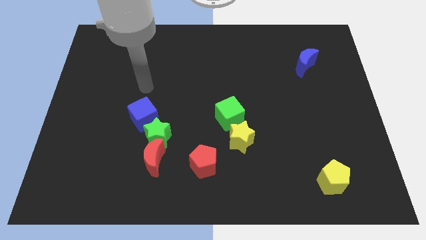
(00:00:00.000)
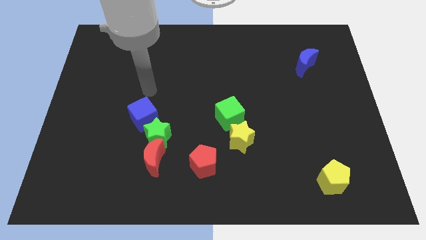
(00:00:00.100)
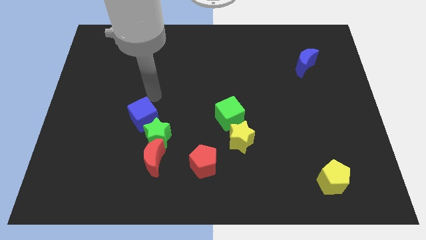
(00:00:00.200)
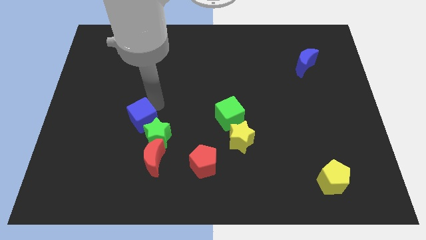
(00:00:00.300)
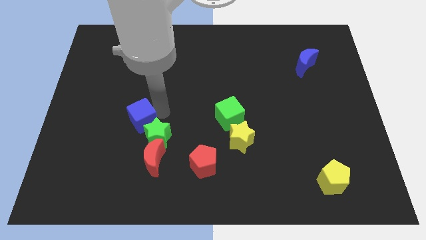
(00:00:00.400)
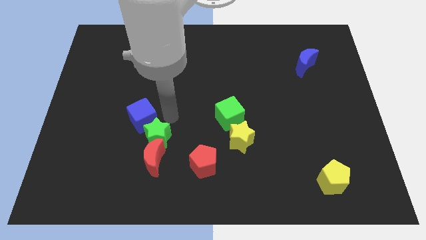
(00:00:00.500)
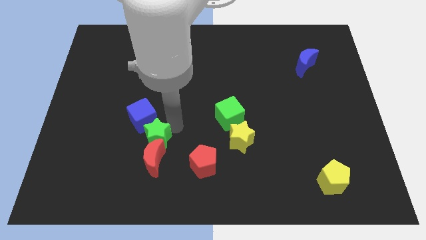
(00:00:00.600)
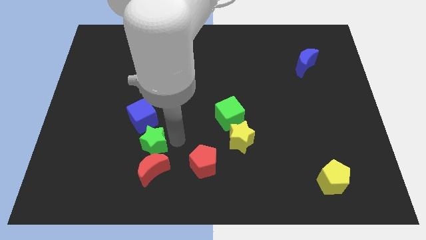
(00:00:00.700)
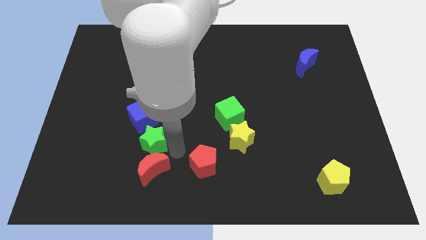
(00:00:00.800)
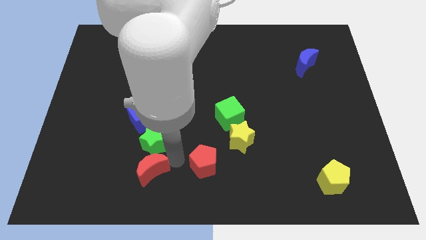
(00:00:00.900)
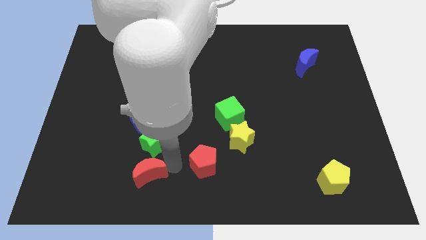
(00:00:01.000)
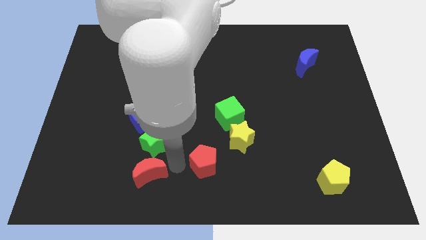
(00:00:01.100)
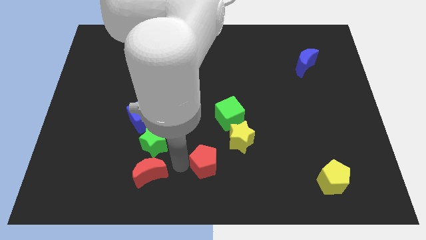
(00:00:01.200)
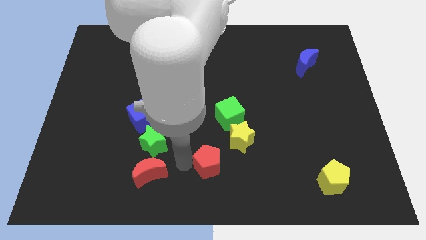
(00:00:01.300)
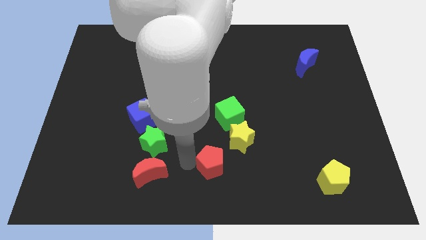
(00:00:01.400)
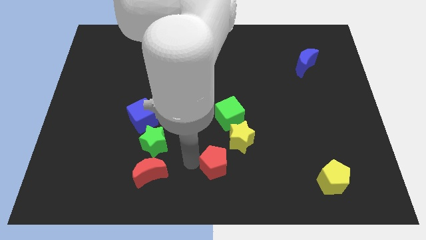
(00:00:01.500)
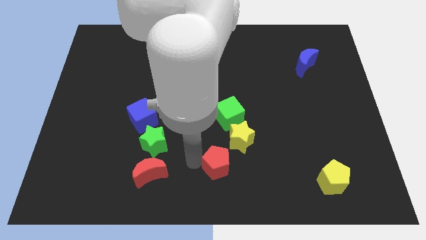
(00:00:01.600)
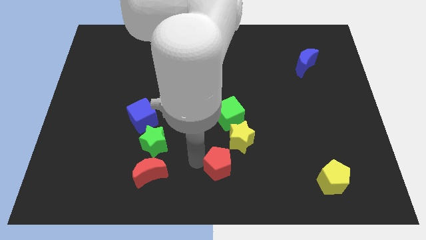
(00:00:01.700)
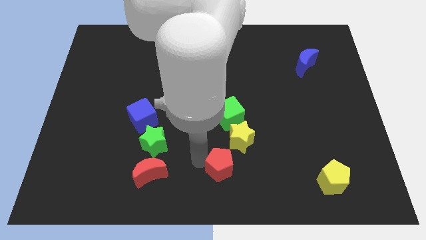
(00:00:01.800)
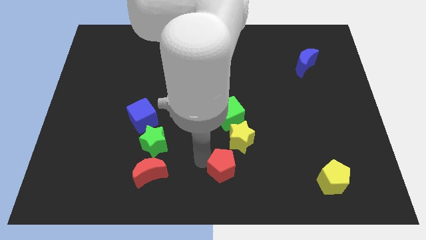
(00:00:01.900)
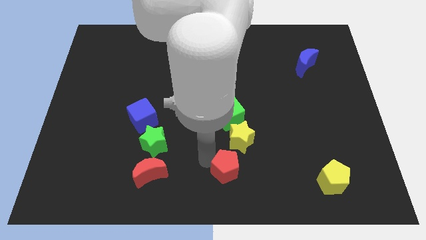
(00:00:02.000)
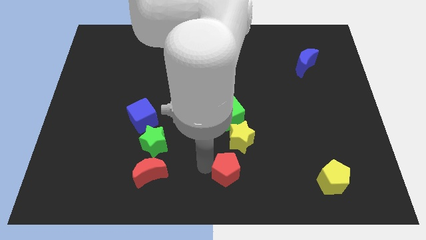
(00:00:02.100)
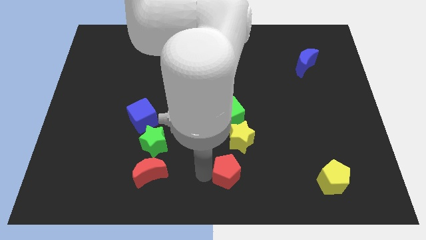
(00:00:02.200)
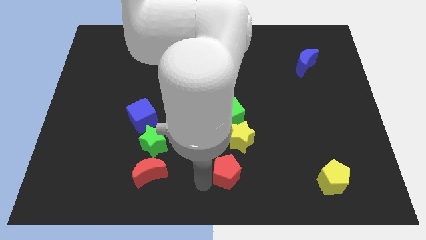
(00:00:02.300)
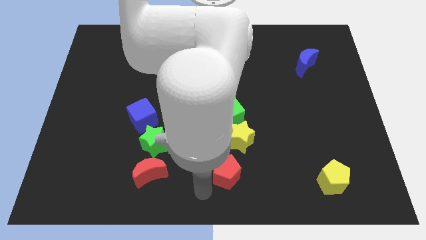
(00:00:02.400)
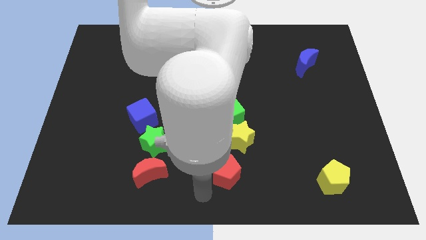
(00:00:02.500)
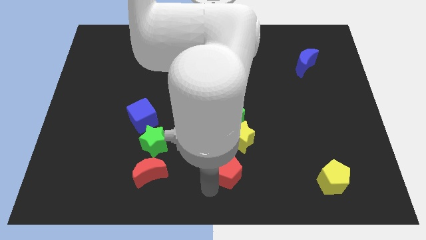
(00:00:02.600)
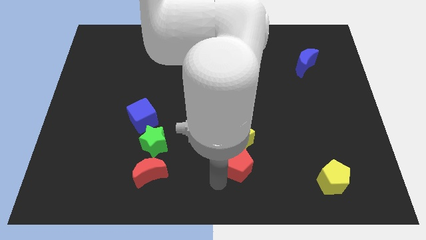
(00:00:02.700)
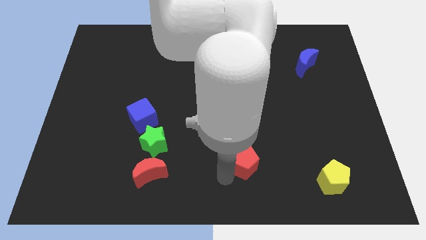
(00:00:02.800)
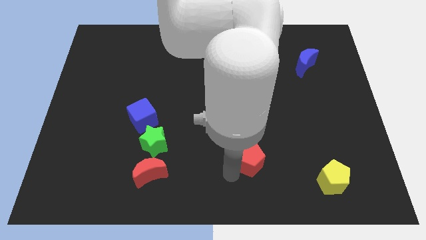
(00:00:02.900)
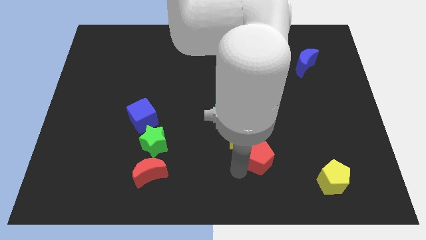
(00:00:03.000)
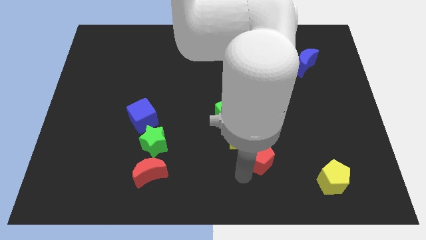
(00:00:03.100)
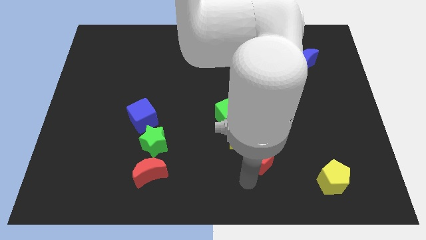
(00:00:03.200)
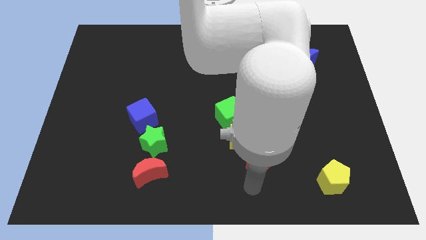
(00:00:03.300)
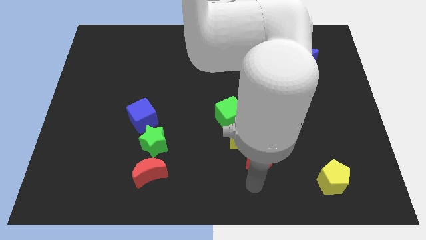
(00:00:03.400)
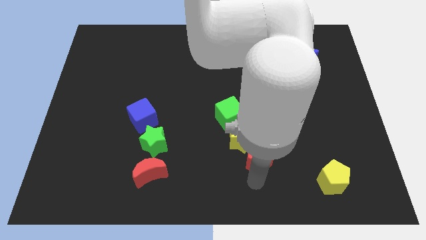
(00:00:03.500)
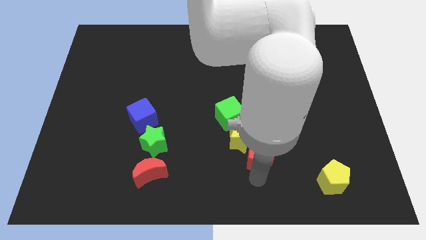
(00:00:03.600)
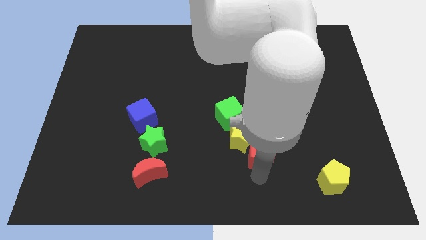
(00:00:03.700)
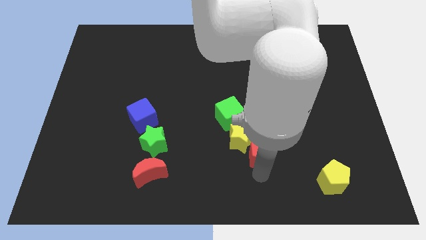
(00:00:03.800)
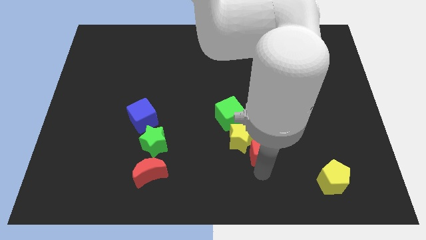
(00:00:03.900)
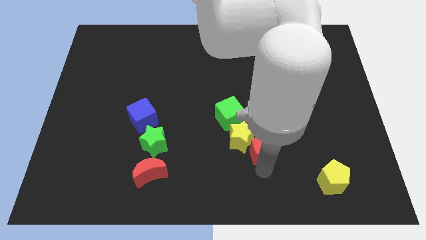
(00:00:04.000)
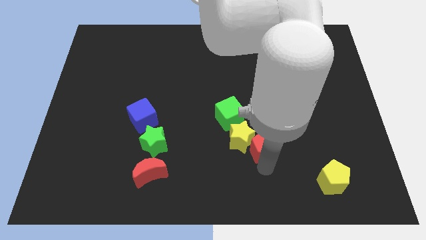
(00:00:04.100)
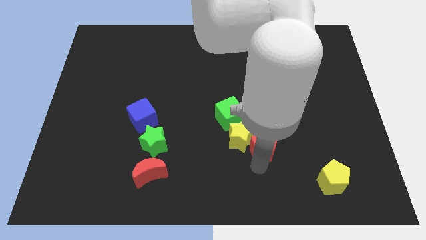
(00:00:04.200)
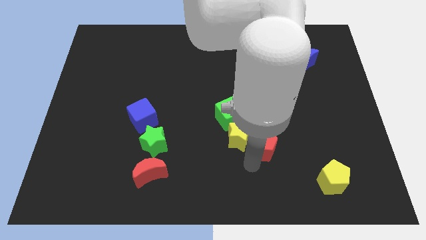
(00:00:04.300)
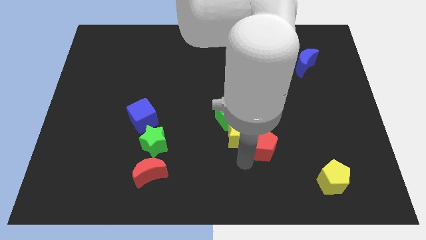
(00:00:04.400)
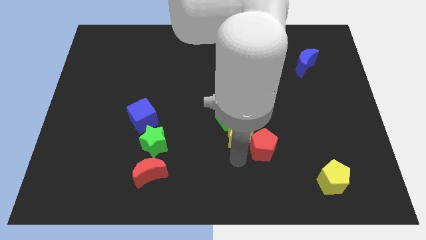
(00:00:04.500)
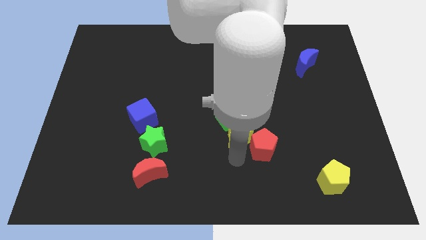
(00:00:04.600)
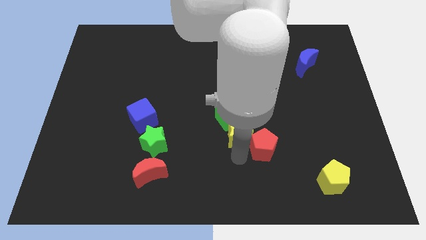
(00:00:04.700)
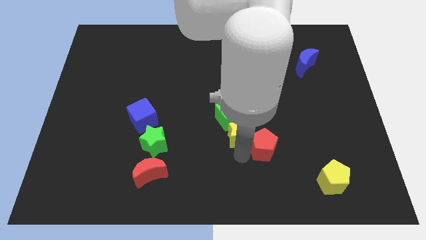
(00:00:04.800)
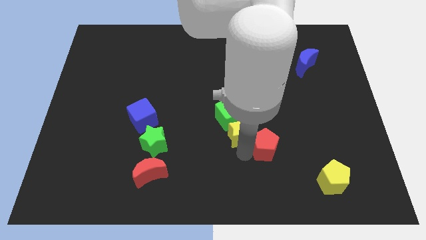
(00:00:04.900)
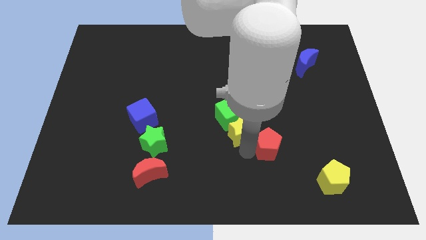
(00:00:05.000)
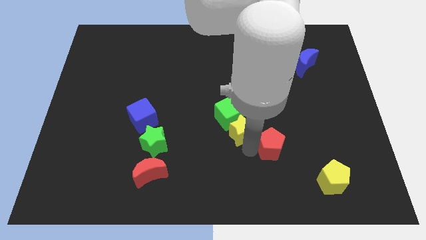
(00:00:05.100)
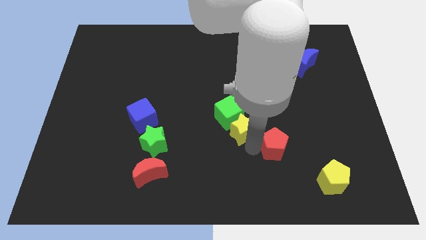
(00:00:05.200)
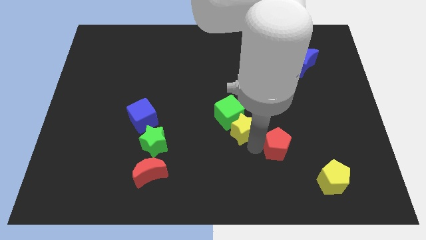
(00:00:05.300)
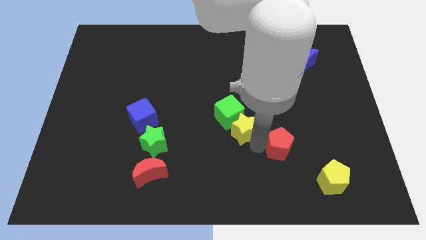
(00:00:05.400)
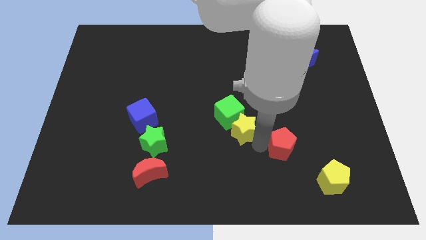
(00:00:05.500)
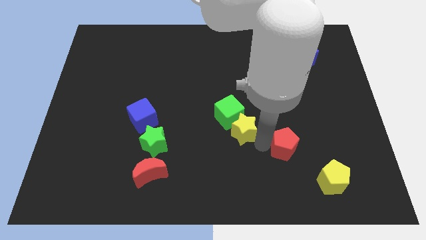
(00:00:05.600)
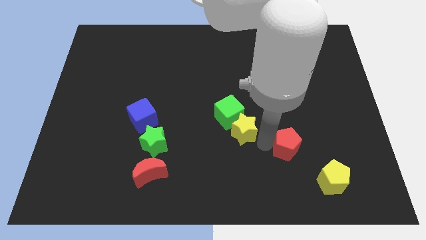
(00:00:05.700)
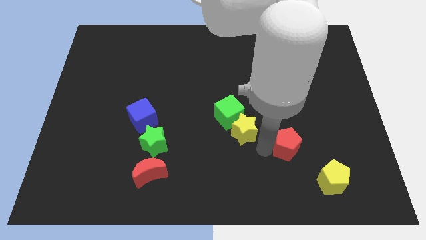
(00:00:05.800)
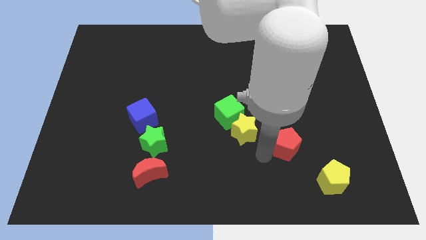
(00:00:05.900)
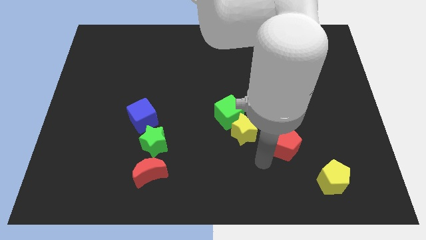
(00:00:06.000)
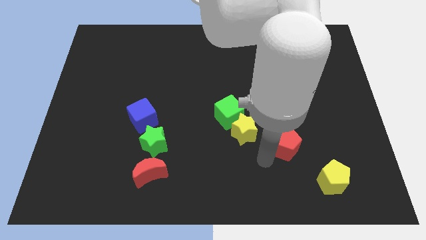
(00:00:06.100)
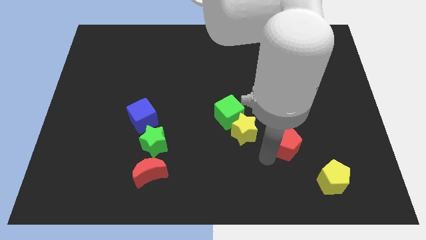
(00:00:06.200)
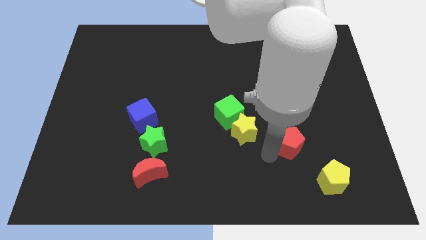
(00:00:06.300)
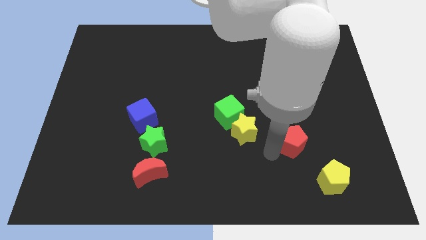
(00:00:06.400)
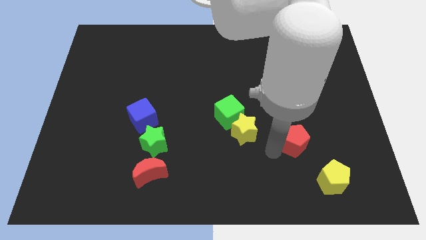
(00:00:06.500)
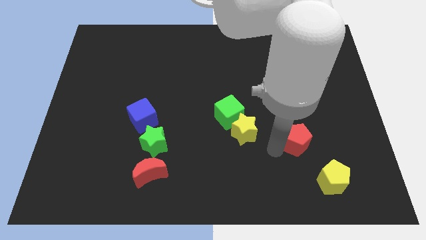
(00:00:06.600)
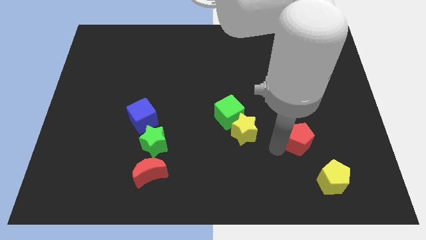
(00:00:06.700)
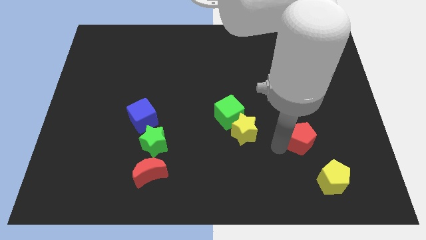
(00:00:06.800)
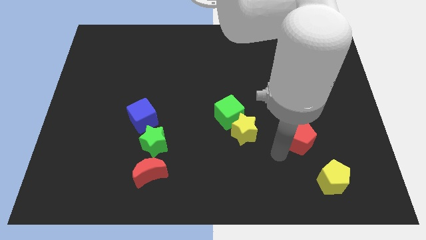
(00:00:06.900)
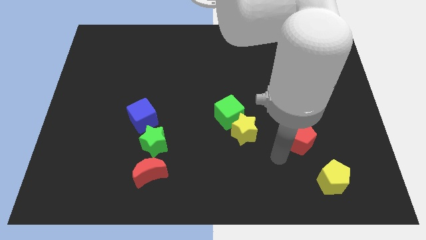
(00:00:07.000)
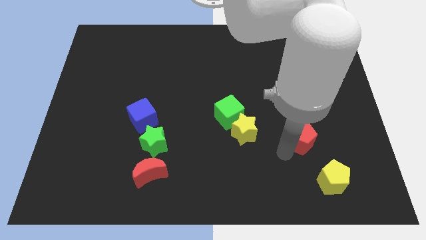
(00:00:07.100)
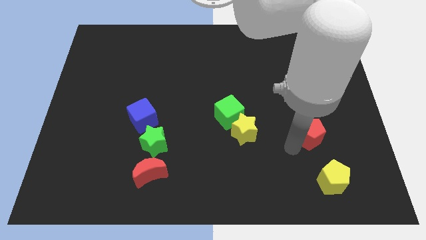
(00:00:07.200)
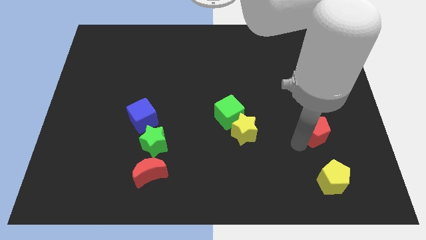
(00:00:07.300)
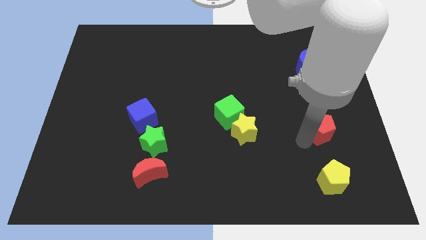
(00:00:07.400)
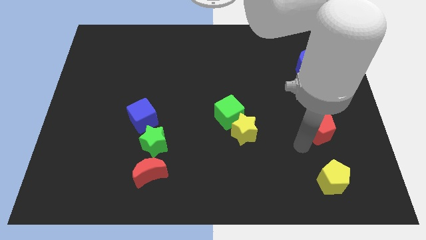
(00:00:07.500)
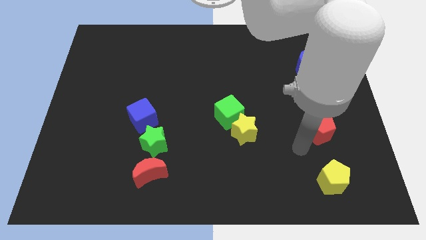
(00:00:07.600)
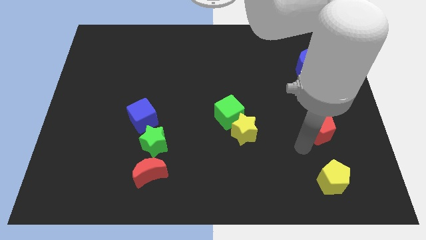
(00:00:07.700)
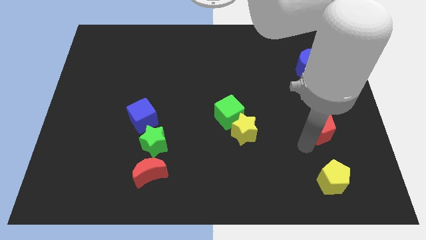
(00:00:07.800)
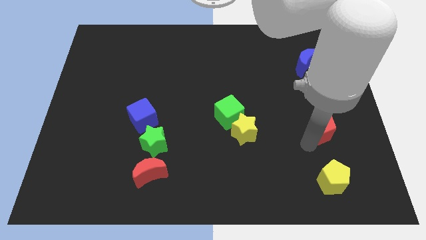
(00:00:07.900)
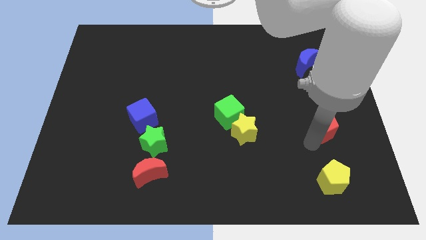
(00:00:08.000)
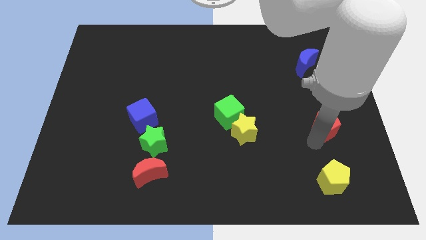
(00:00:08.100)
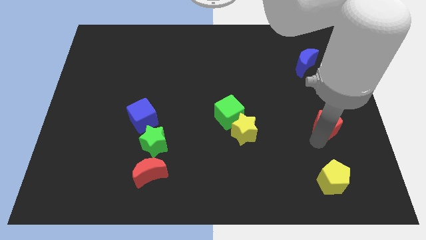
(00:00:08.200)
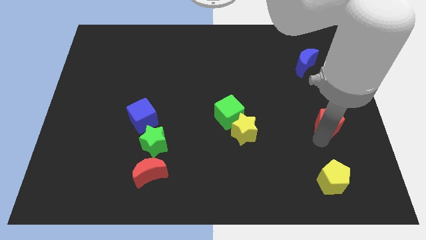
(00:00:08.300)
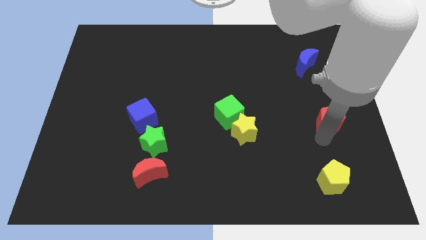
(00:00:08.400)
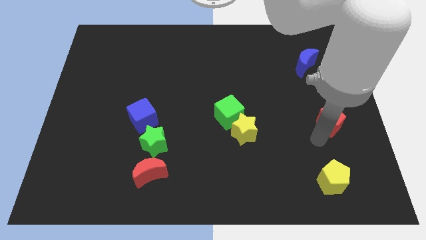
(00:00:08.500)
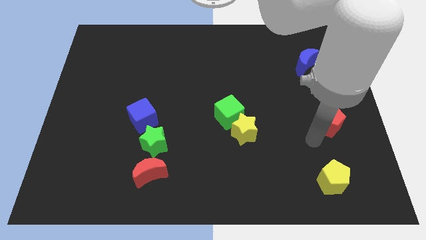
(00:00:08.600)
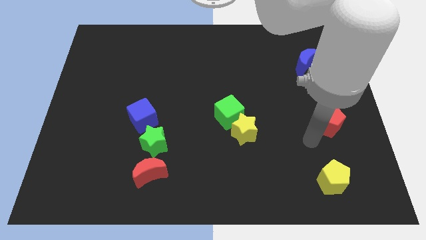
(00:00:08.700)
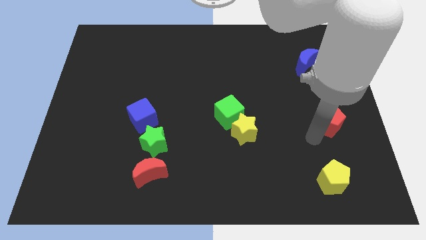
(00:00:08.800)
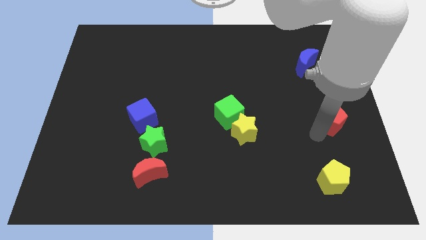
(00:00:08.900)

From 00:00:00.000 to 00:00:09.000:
push the red pentagon to the right side of the board
